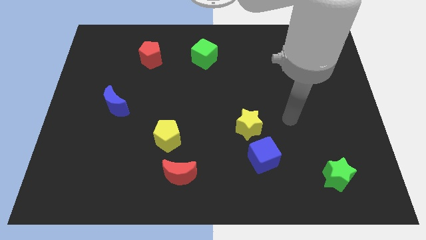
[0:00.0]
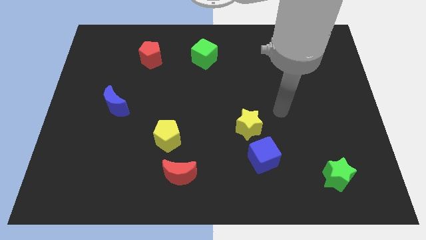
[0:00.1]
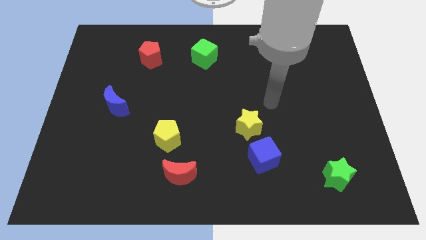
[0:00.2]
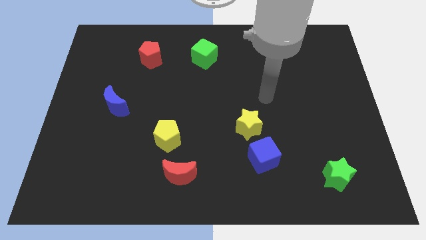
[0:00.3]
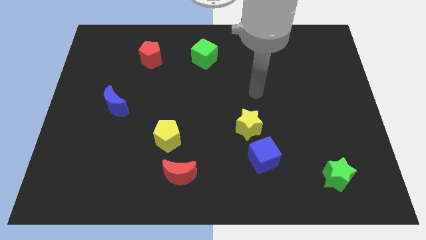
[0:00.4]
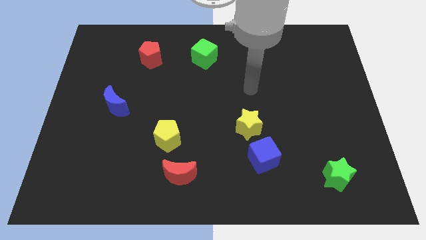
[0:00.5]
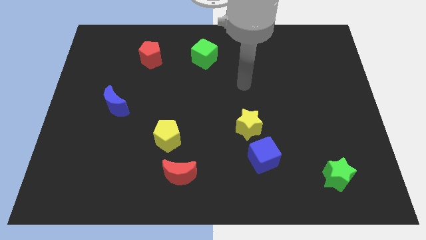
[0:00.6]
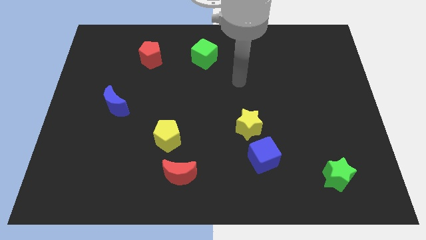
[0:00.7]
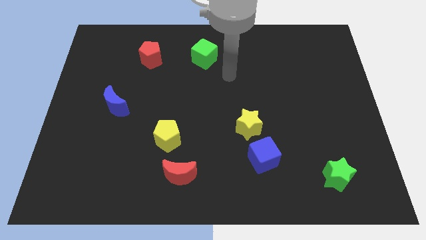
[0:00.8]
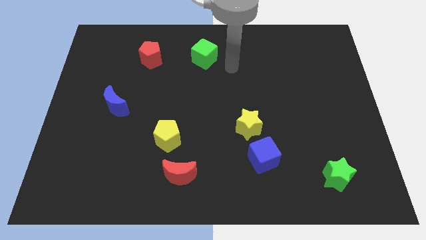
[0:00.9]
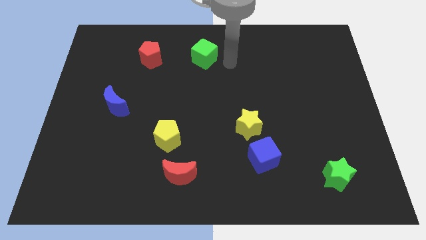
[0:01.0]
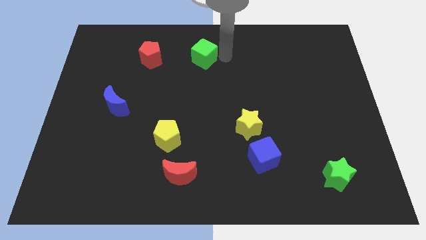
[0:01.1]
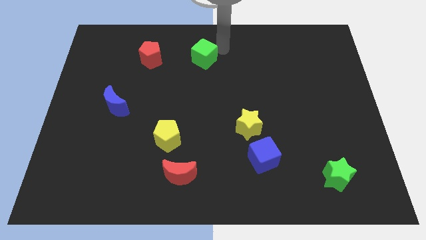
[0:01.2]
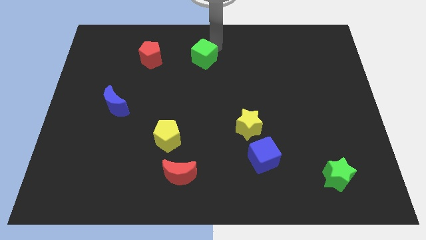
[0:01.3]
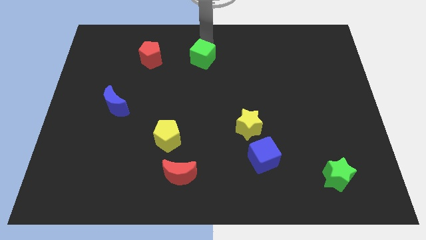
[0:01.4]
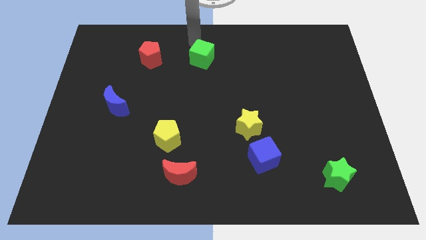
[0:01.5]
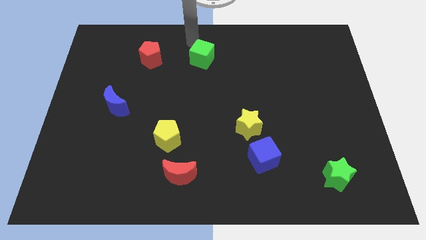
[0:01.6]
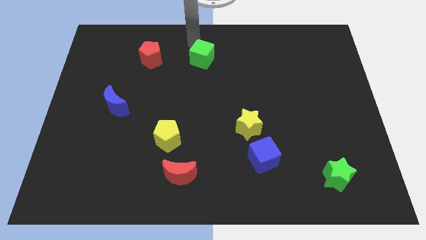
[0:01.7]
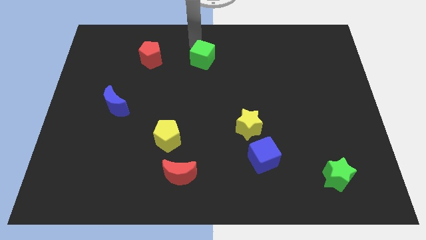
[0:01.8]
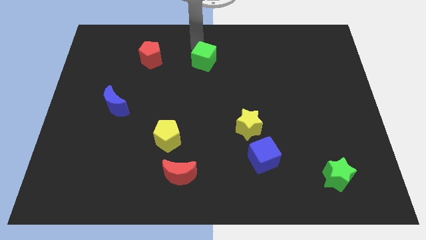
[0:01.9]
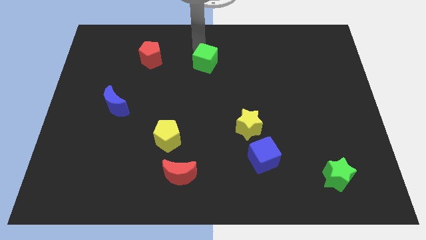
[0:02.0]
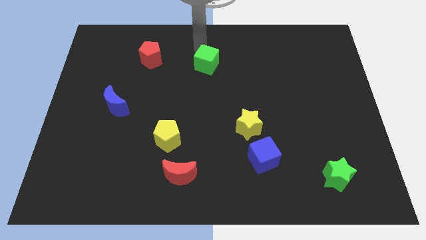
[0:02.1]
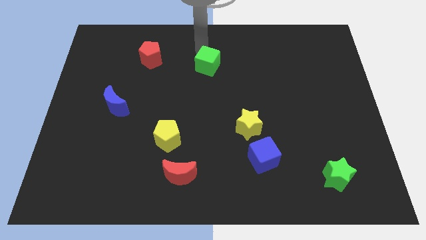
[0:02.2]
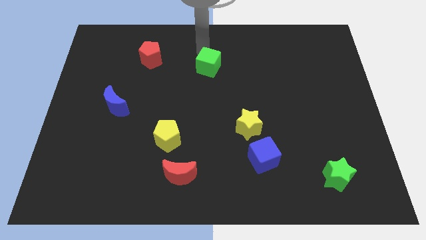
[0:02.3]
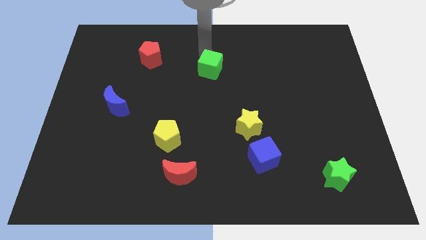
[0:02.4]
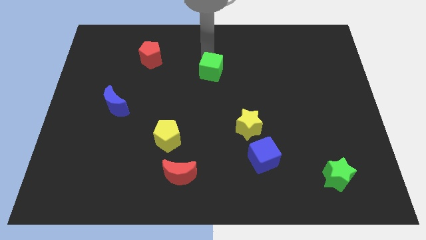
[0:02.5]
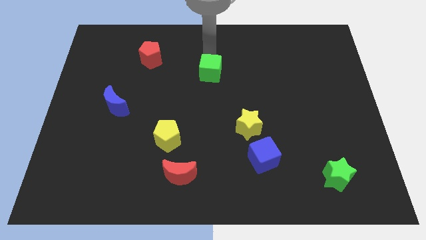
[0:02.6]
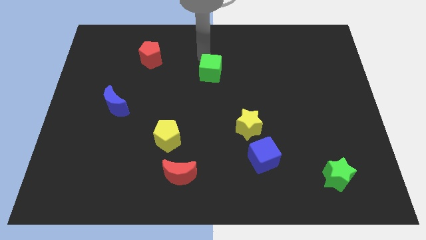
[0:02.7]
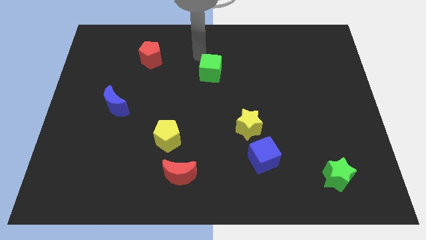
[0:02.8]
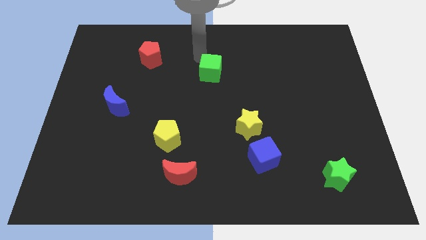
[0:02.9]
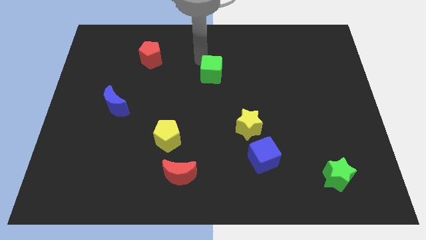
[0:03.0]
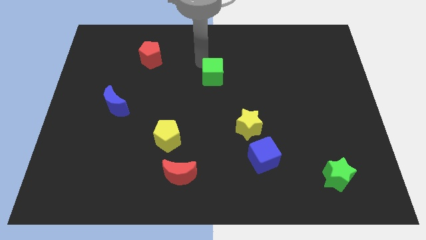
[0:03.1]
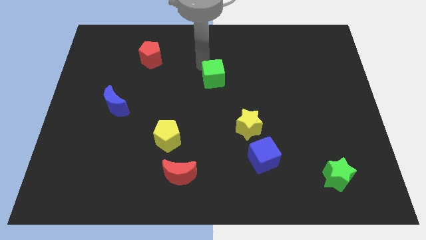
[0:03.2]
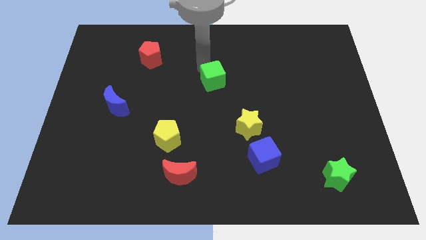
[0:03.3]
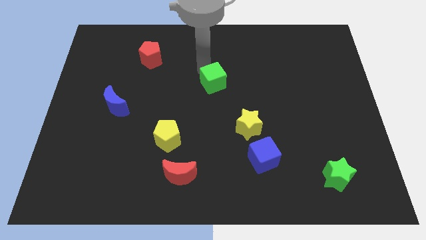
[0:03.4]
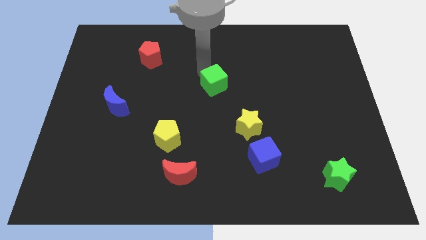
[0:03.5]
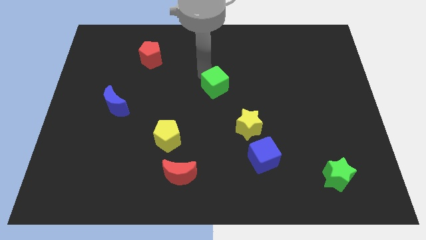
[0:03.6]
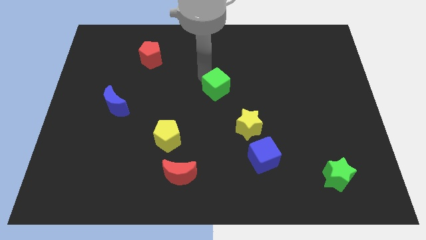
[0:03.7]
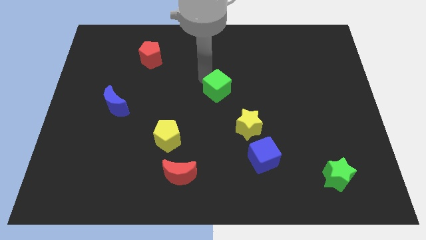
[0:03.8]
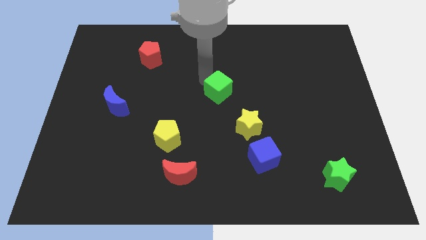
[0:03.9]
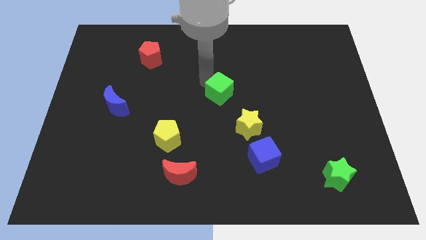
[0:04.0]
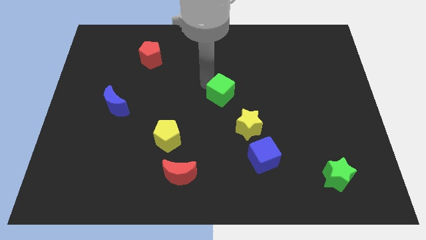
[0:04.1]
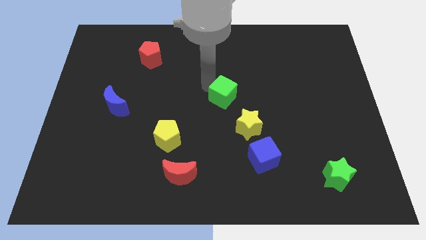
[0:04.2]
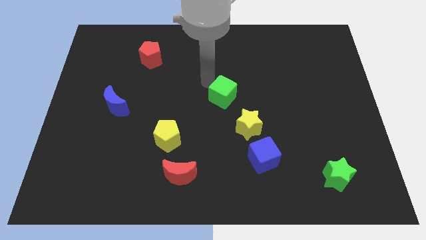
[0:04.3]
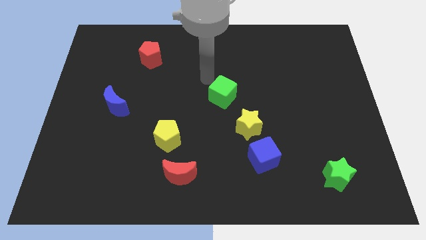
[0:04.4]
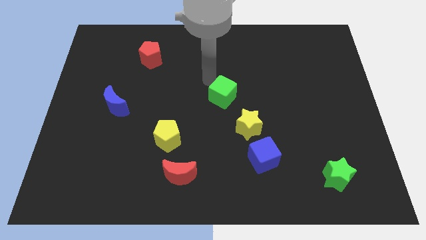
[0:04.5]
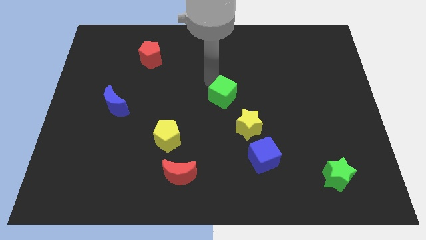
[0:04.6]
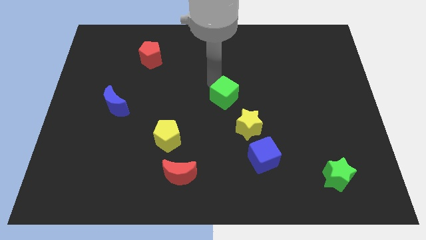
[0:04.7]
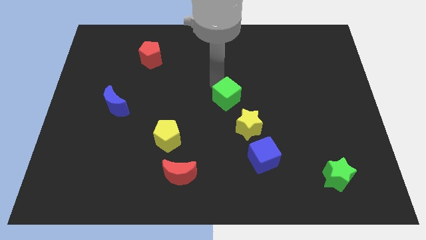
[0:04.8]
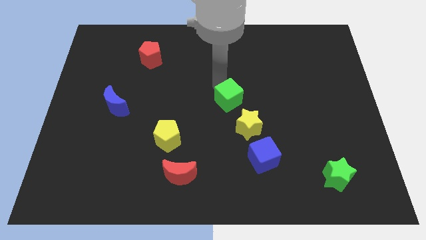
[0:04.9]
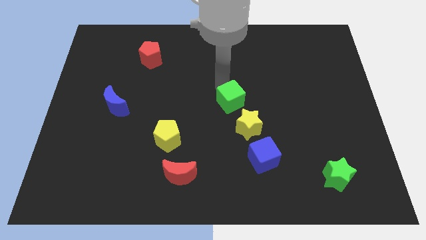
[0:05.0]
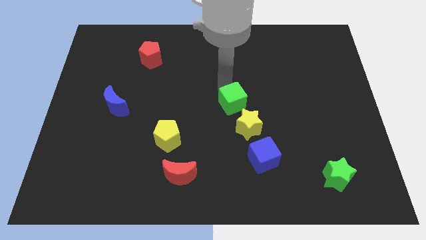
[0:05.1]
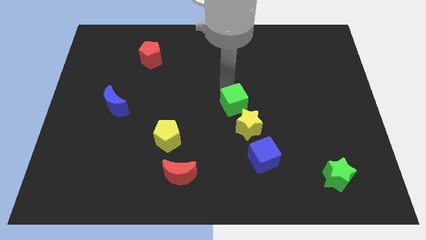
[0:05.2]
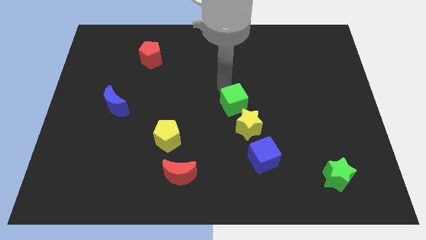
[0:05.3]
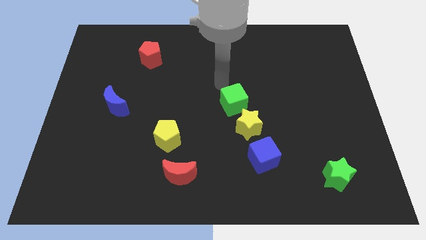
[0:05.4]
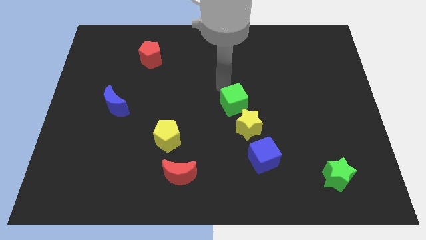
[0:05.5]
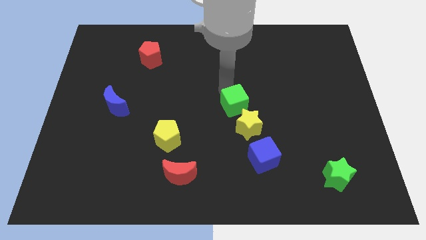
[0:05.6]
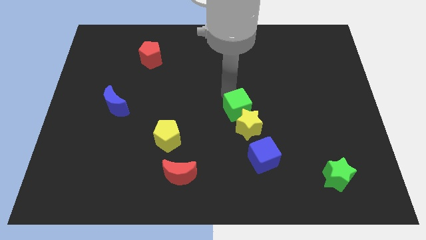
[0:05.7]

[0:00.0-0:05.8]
put the green cube next to the yellow star
